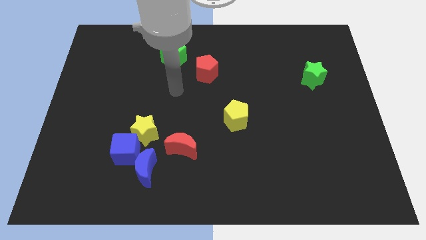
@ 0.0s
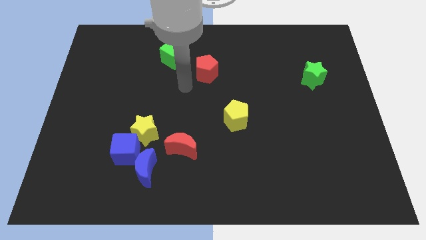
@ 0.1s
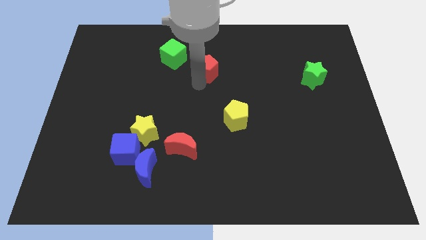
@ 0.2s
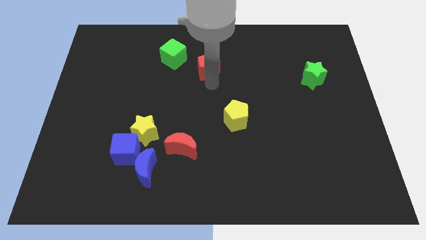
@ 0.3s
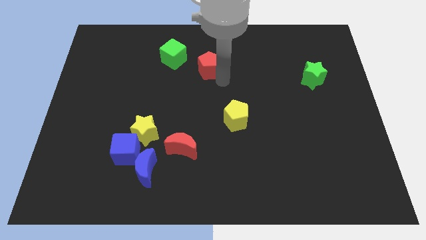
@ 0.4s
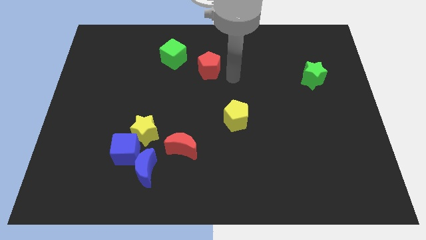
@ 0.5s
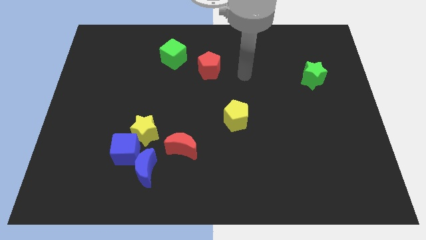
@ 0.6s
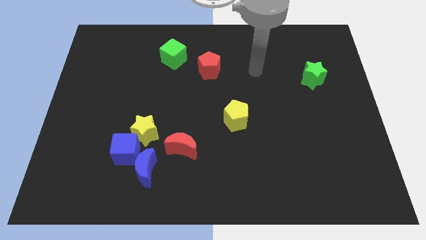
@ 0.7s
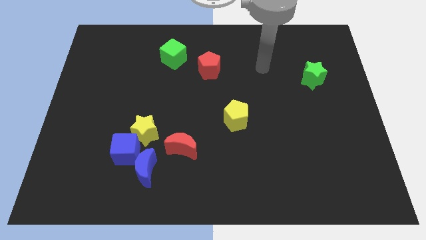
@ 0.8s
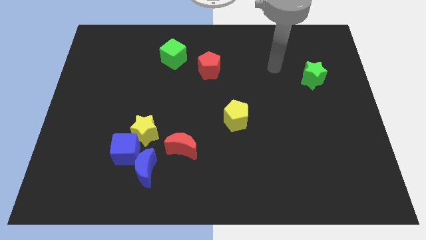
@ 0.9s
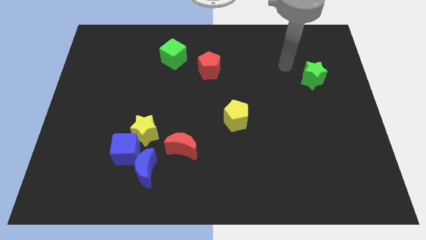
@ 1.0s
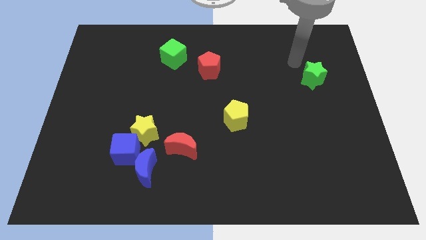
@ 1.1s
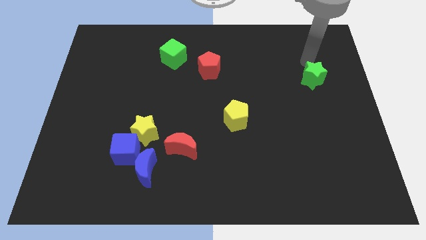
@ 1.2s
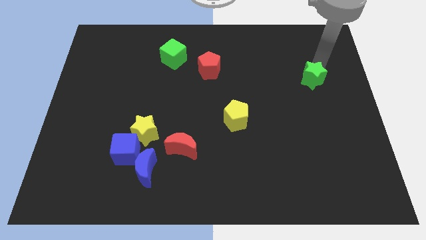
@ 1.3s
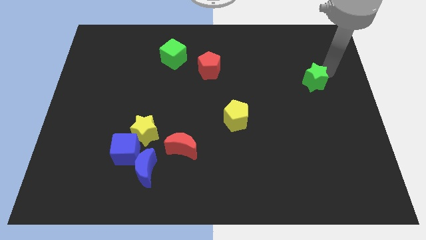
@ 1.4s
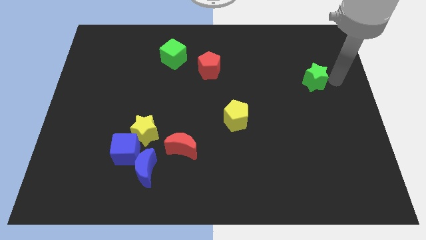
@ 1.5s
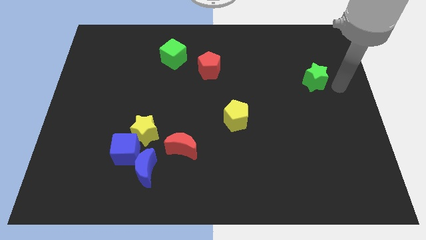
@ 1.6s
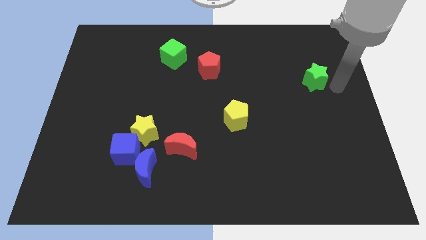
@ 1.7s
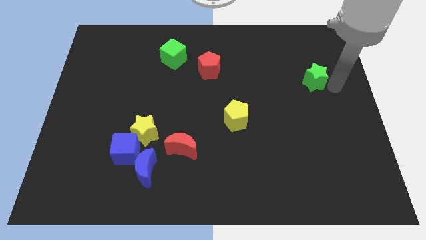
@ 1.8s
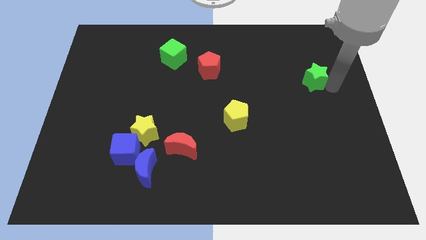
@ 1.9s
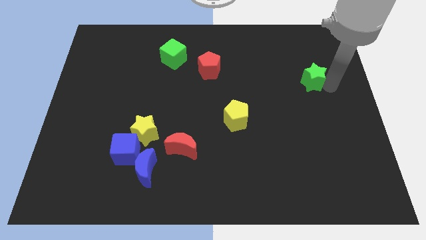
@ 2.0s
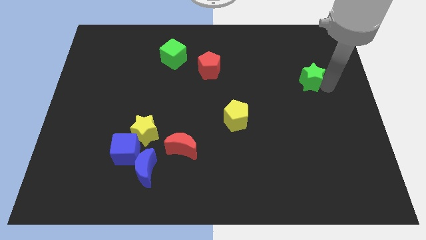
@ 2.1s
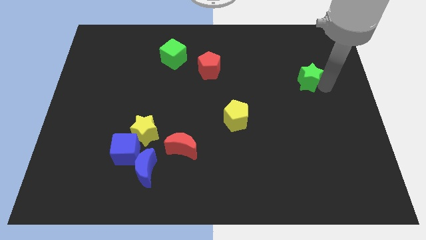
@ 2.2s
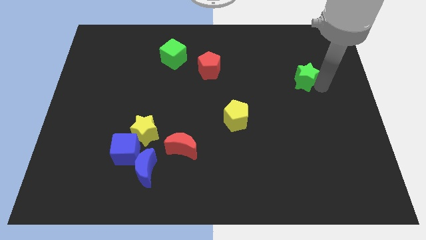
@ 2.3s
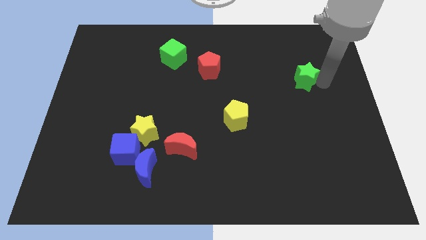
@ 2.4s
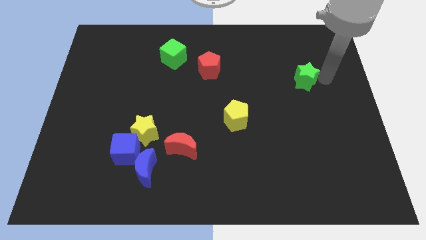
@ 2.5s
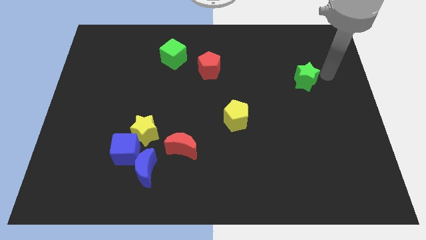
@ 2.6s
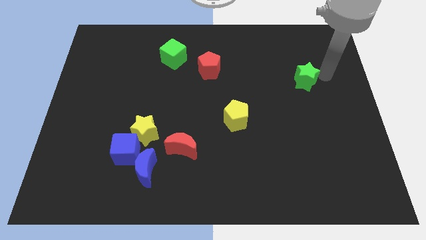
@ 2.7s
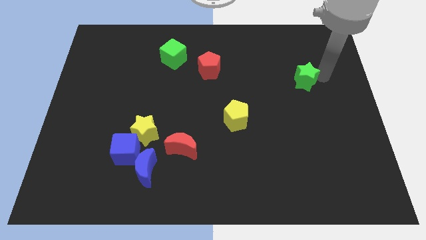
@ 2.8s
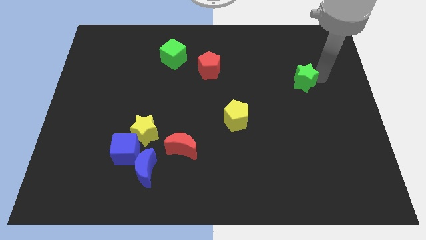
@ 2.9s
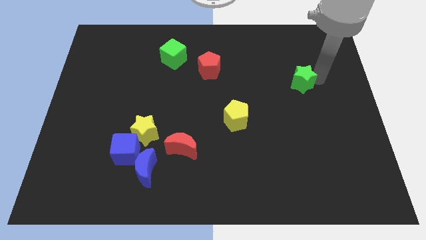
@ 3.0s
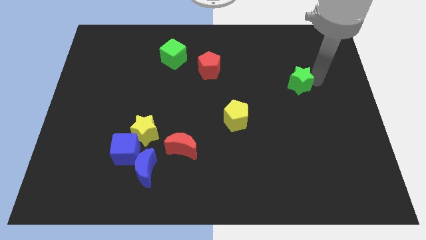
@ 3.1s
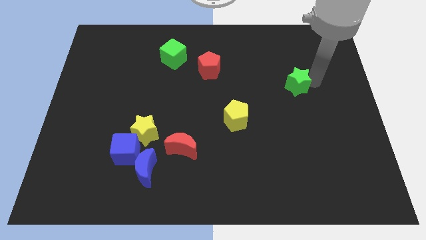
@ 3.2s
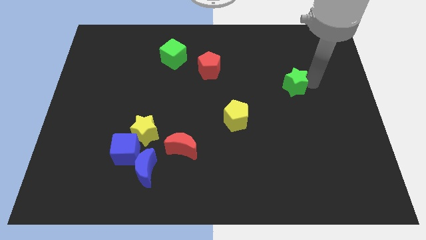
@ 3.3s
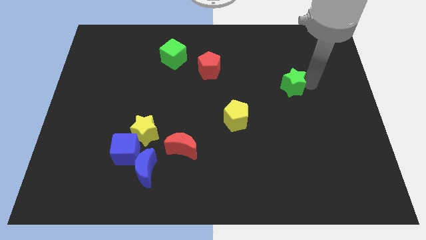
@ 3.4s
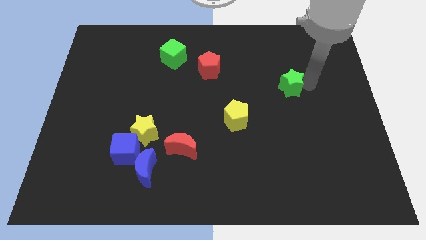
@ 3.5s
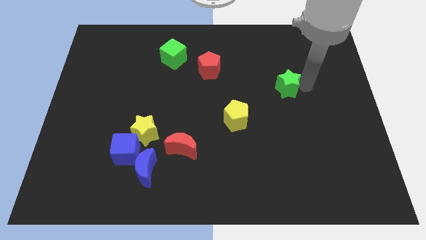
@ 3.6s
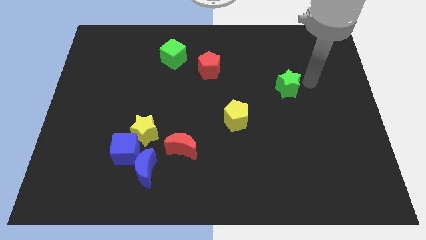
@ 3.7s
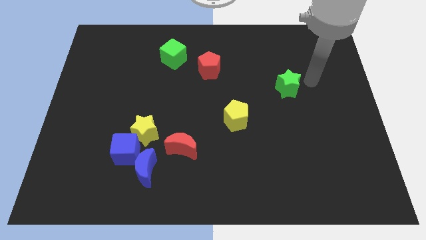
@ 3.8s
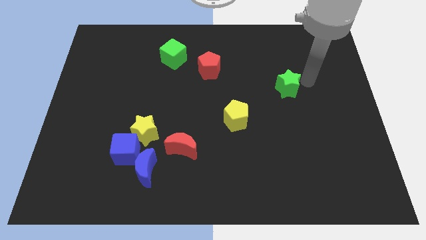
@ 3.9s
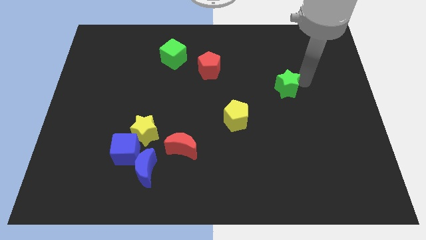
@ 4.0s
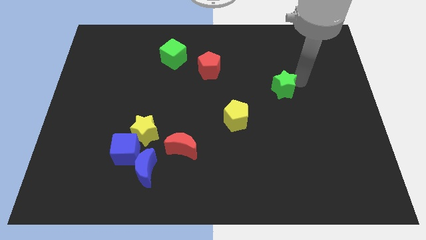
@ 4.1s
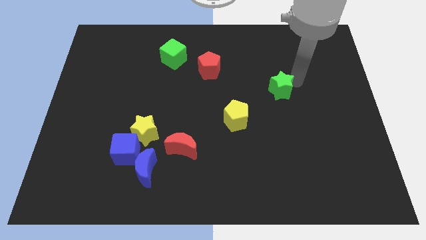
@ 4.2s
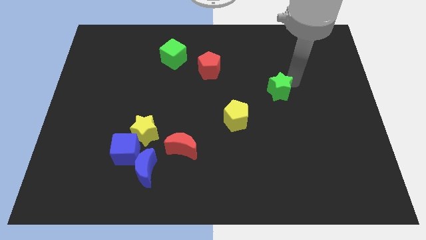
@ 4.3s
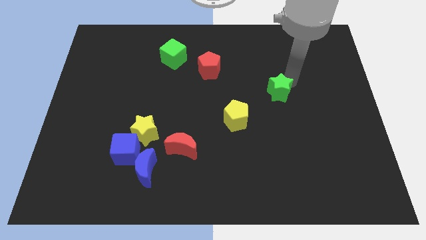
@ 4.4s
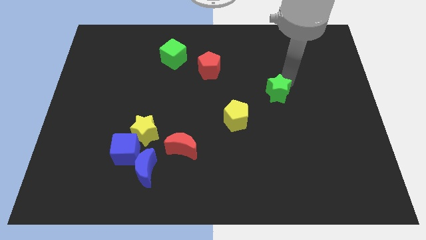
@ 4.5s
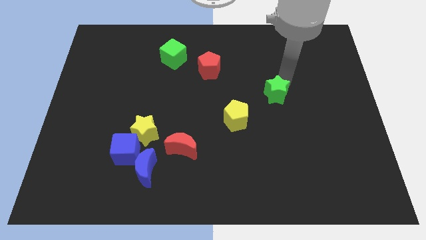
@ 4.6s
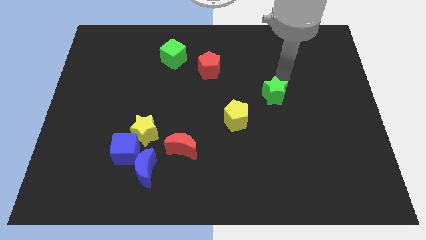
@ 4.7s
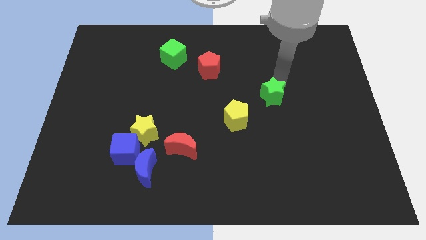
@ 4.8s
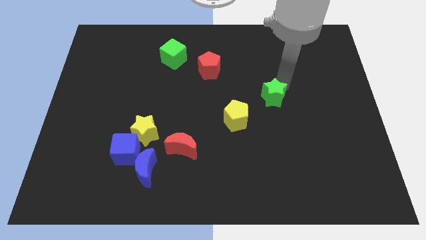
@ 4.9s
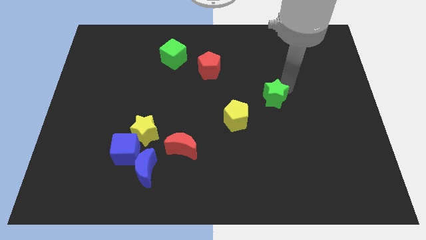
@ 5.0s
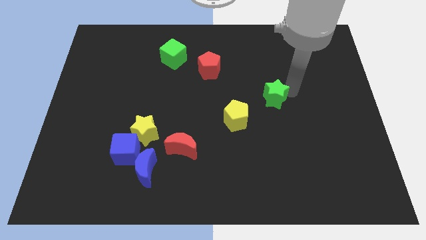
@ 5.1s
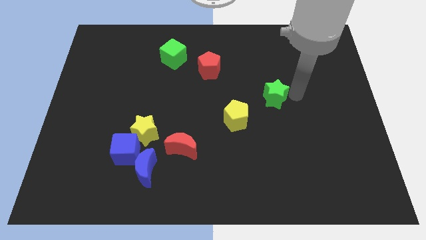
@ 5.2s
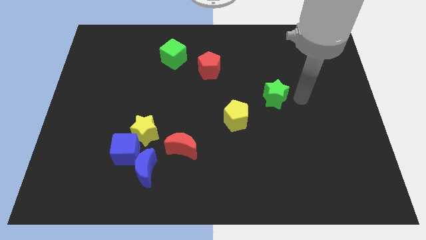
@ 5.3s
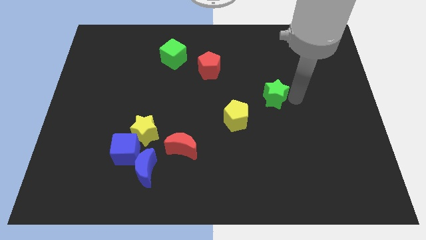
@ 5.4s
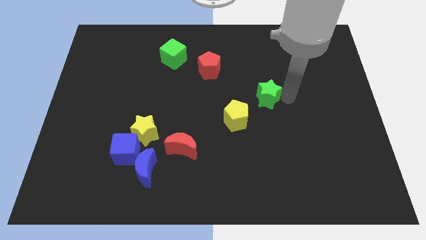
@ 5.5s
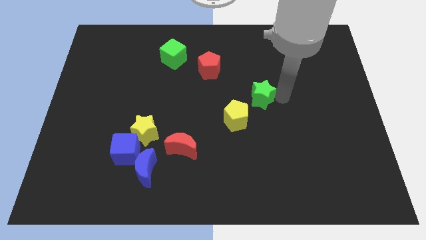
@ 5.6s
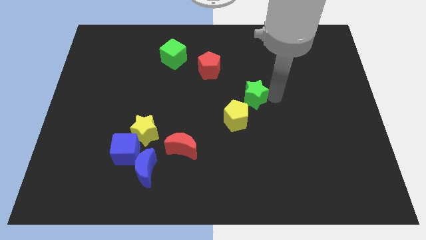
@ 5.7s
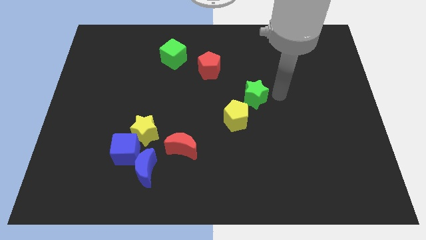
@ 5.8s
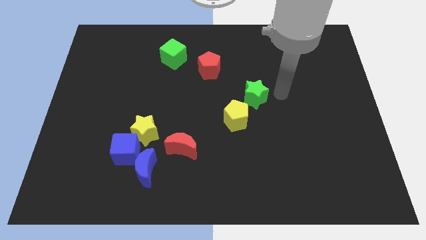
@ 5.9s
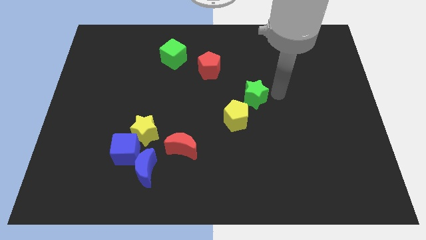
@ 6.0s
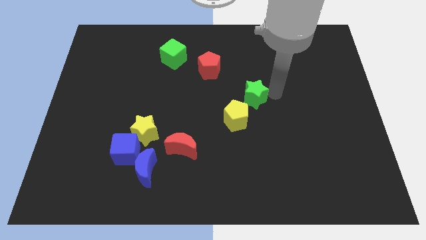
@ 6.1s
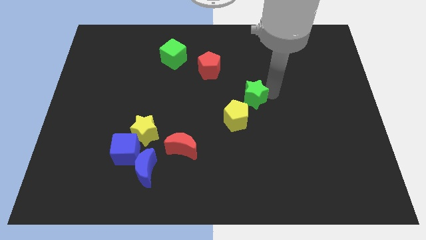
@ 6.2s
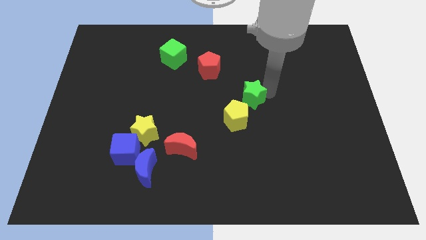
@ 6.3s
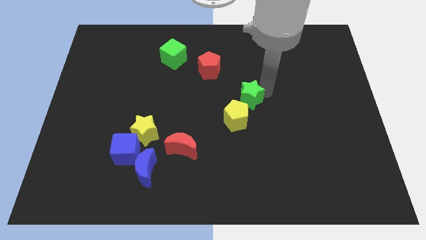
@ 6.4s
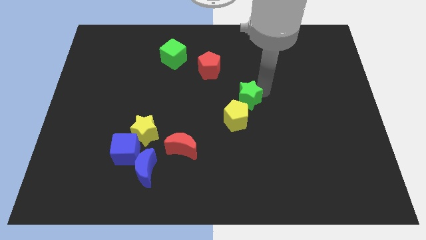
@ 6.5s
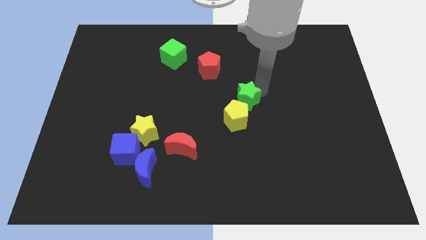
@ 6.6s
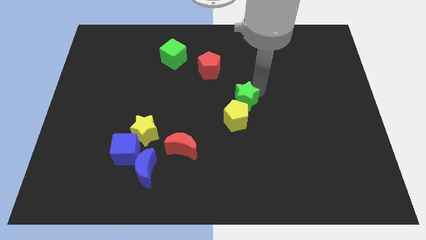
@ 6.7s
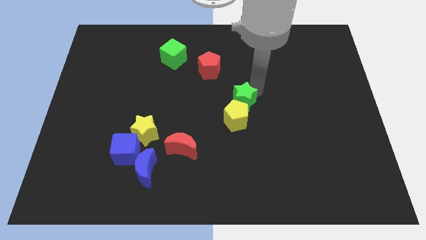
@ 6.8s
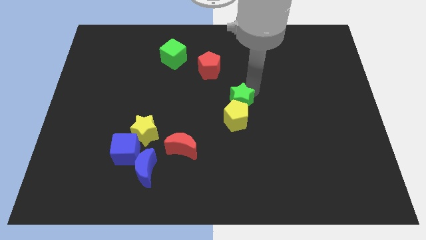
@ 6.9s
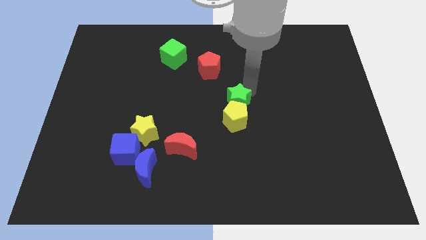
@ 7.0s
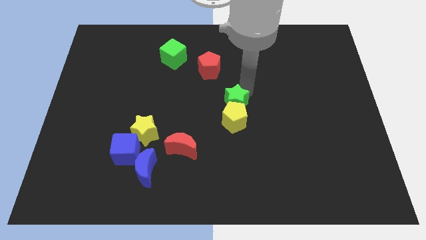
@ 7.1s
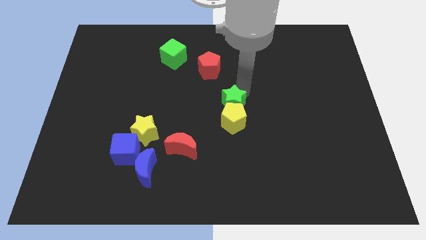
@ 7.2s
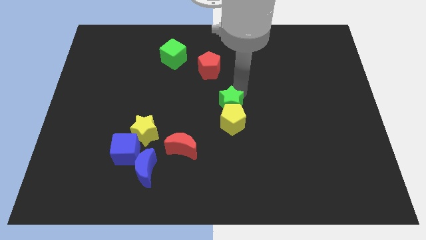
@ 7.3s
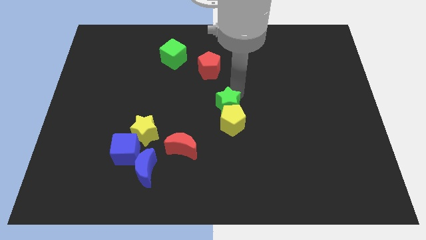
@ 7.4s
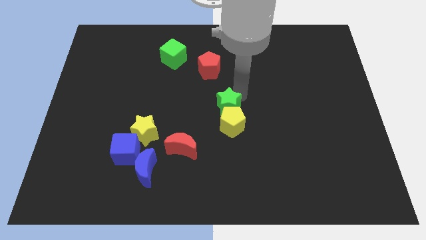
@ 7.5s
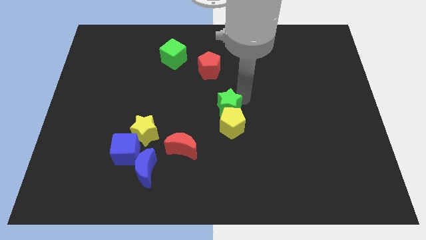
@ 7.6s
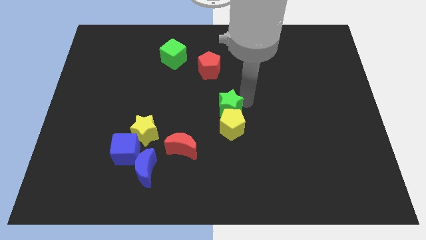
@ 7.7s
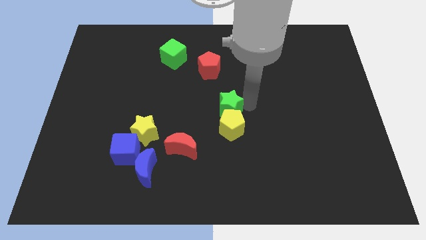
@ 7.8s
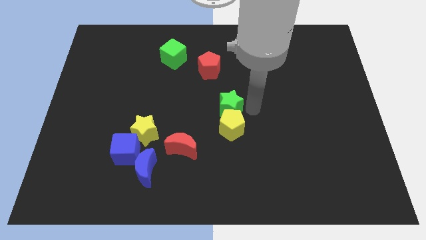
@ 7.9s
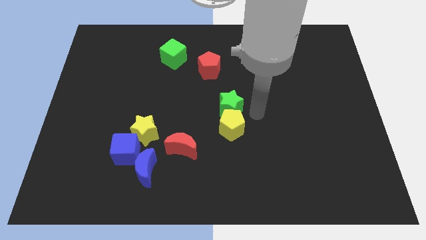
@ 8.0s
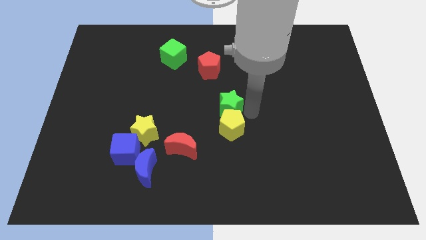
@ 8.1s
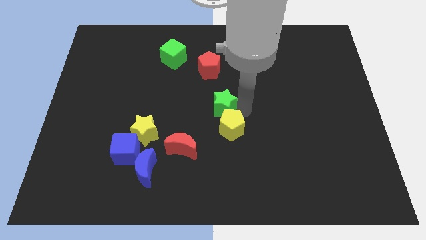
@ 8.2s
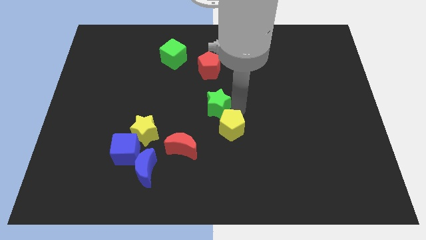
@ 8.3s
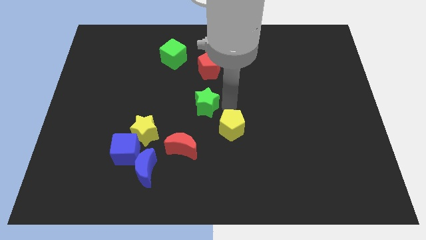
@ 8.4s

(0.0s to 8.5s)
move the green star to the top side of the red moon
